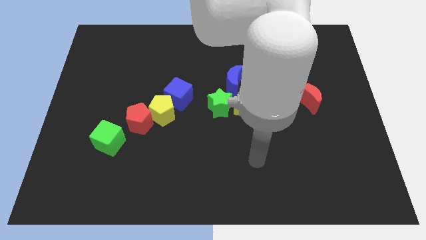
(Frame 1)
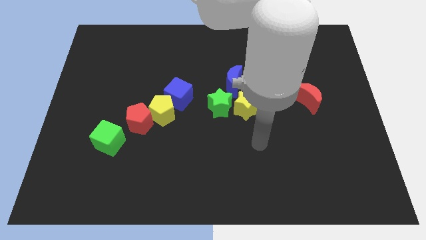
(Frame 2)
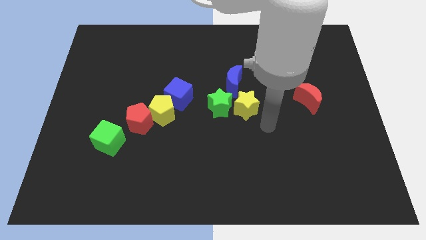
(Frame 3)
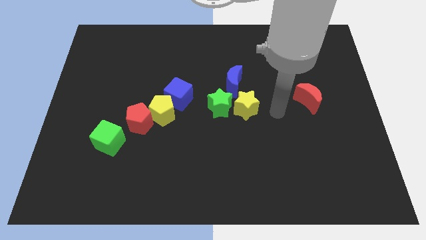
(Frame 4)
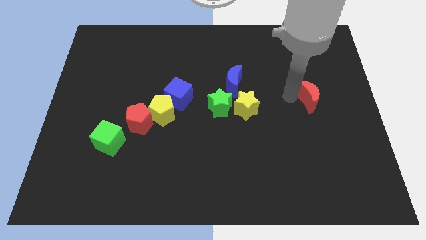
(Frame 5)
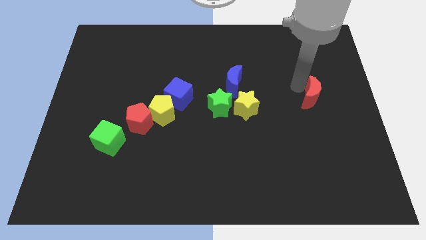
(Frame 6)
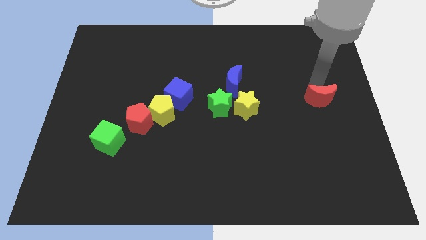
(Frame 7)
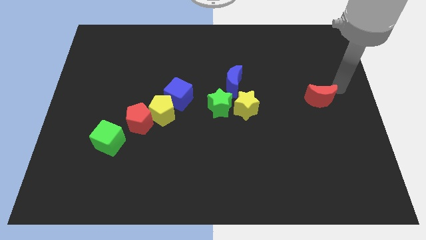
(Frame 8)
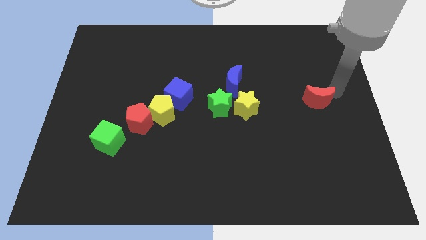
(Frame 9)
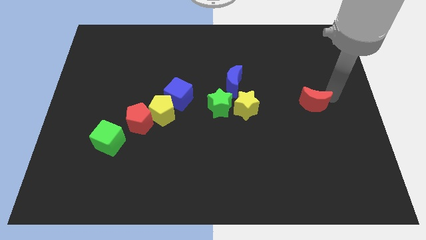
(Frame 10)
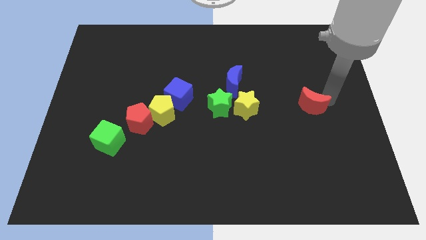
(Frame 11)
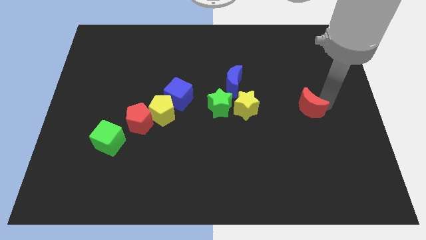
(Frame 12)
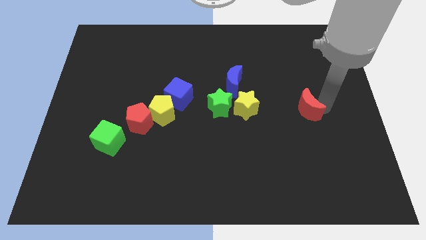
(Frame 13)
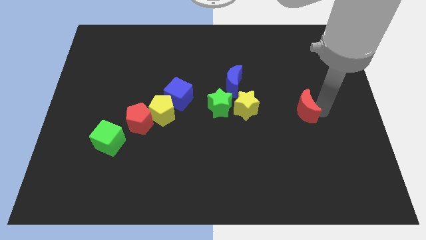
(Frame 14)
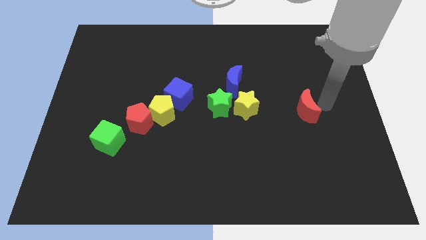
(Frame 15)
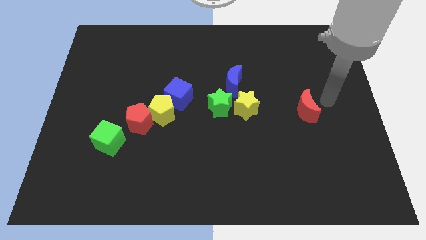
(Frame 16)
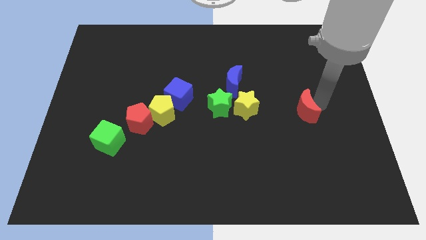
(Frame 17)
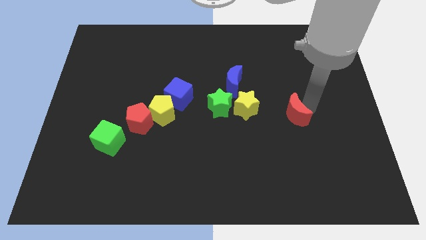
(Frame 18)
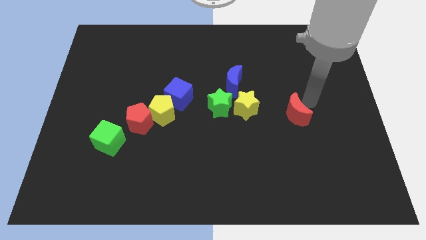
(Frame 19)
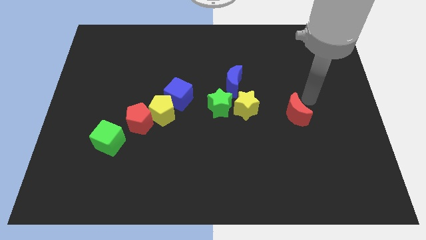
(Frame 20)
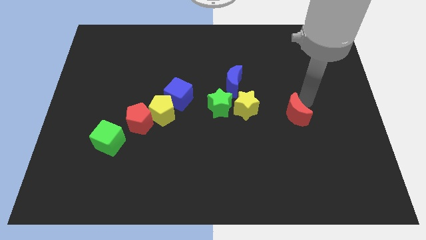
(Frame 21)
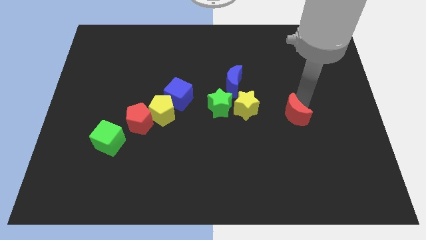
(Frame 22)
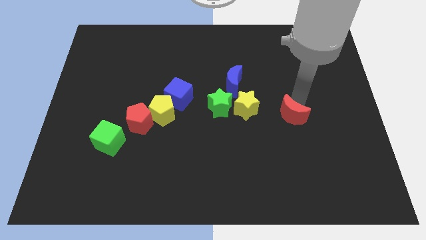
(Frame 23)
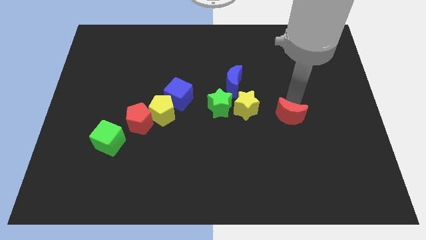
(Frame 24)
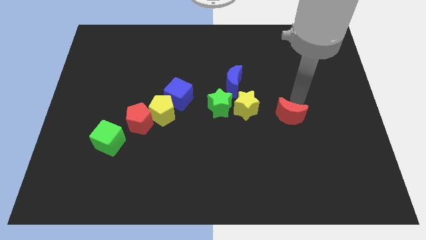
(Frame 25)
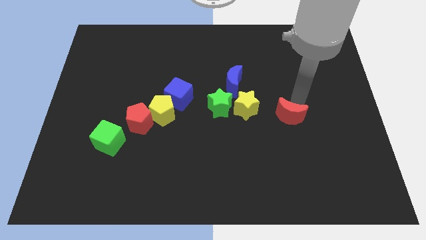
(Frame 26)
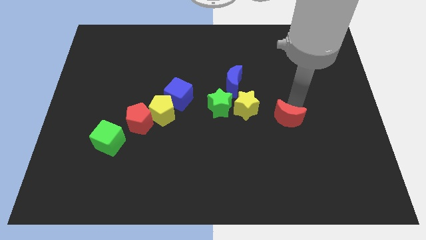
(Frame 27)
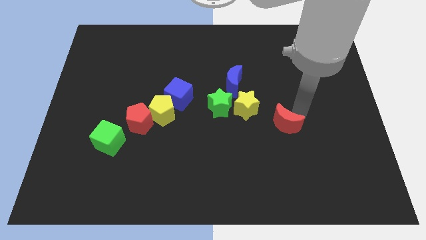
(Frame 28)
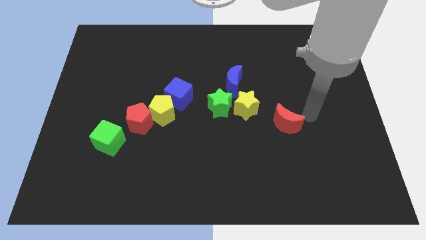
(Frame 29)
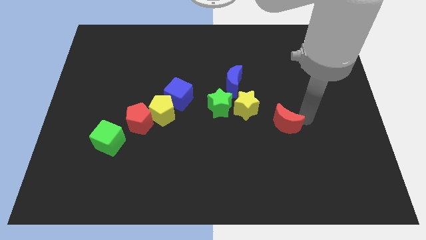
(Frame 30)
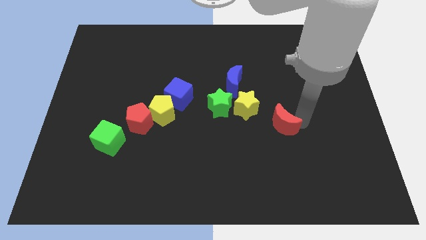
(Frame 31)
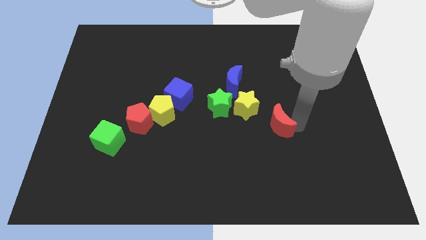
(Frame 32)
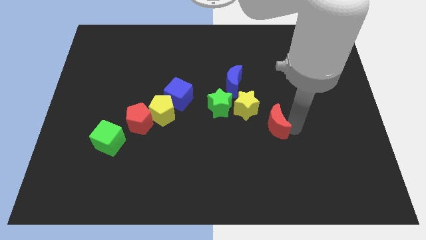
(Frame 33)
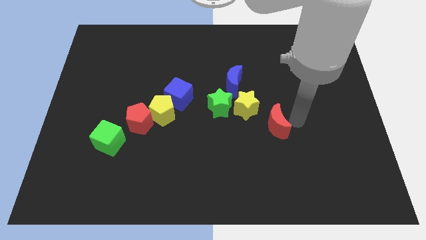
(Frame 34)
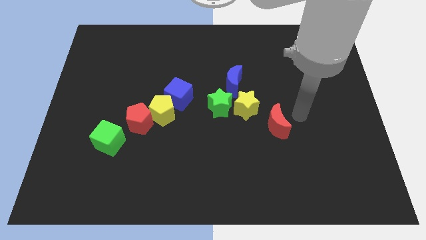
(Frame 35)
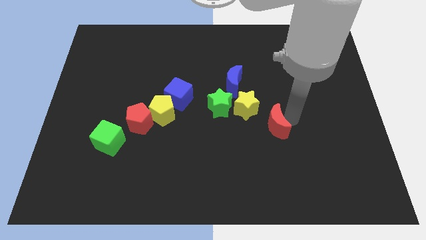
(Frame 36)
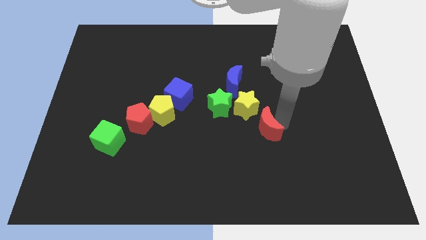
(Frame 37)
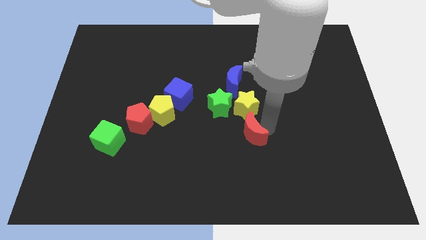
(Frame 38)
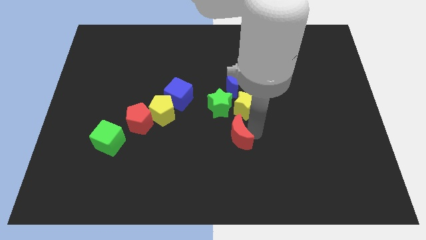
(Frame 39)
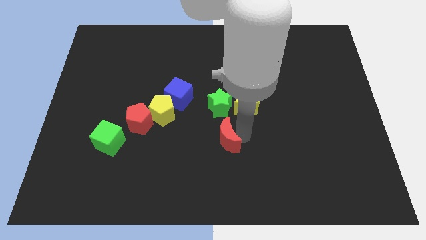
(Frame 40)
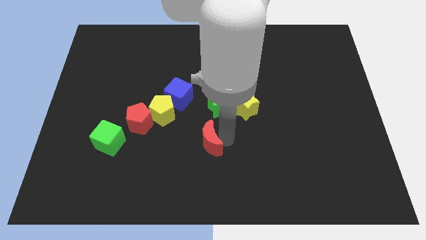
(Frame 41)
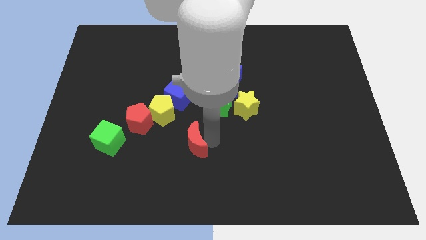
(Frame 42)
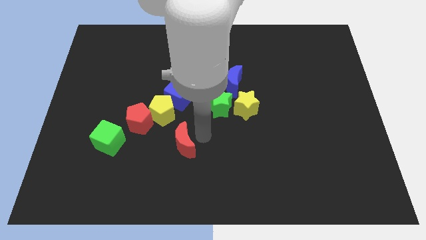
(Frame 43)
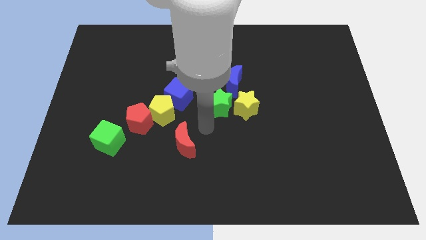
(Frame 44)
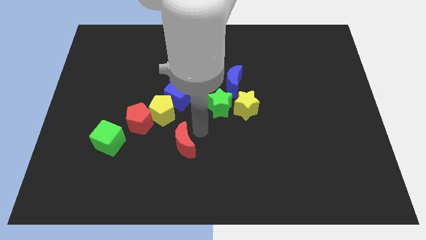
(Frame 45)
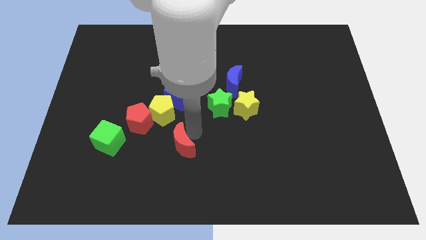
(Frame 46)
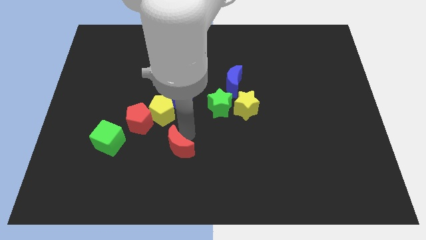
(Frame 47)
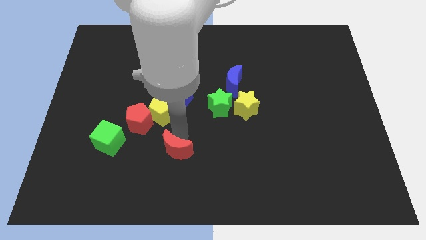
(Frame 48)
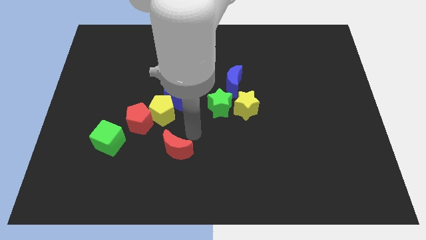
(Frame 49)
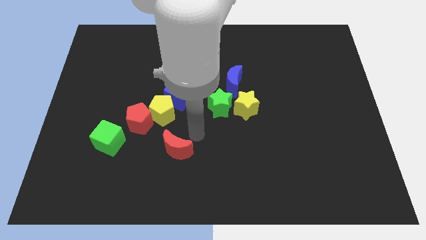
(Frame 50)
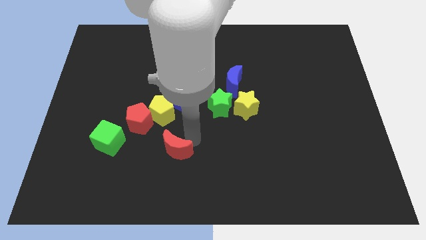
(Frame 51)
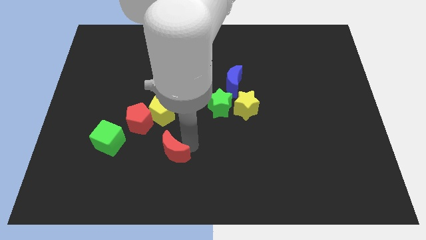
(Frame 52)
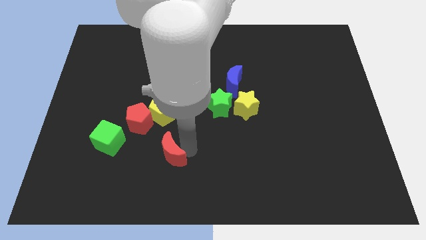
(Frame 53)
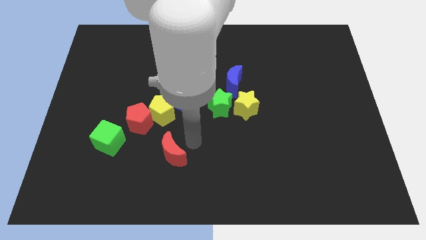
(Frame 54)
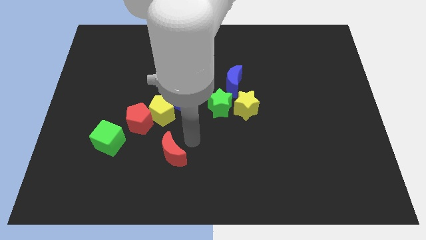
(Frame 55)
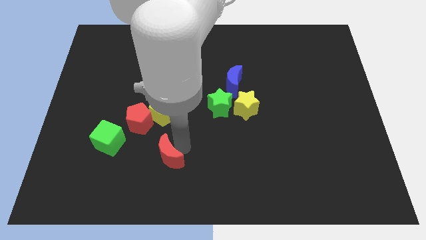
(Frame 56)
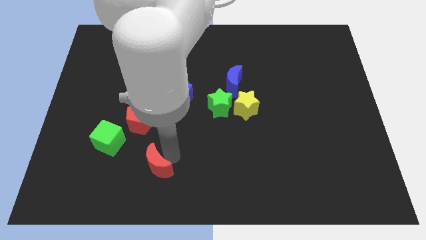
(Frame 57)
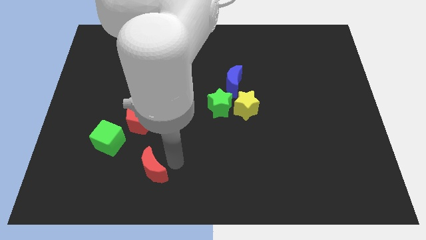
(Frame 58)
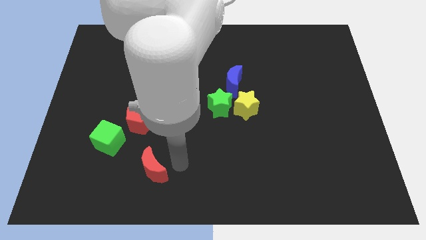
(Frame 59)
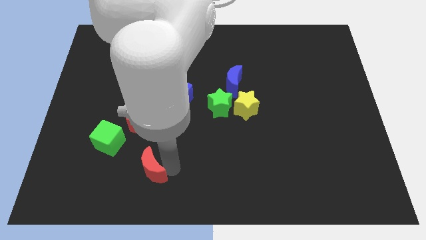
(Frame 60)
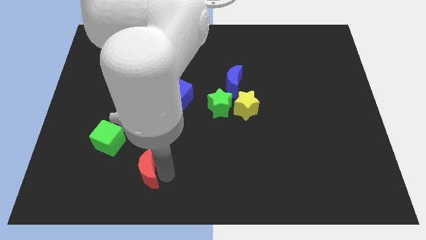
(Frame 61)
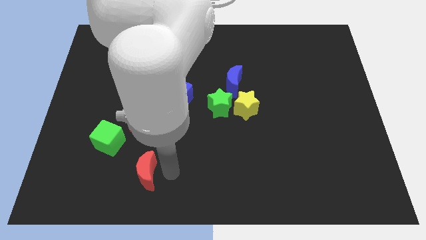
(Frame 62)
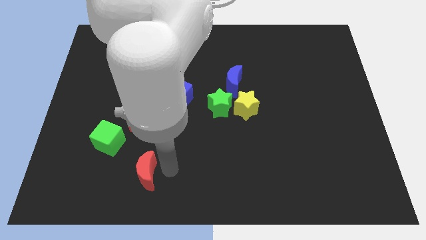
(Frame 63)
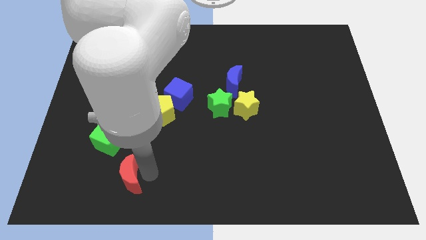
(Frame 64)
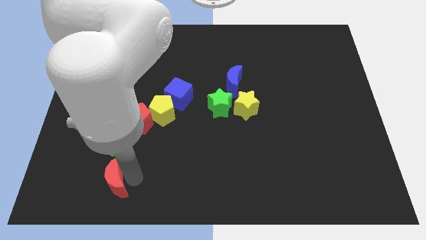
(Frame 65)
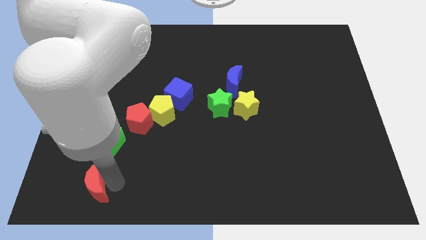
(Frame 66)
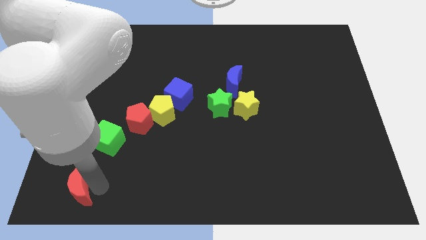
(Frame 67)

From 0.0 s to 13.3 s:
push the red moon to the bottom left corner

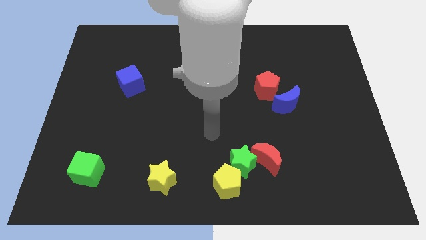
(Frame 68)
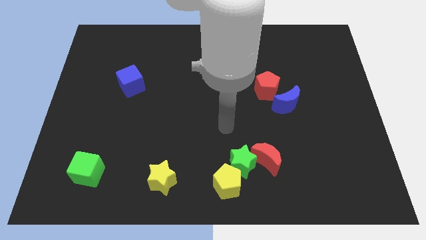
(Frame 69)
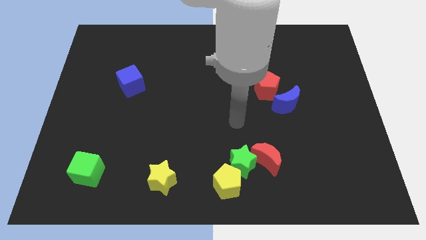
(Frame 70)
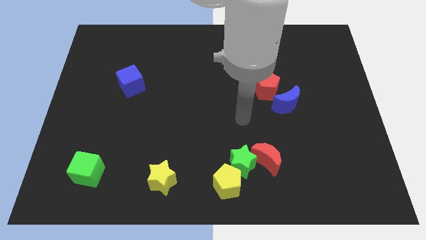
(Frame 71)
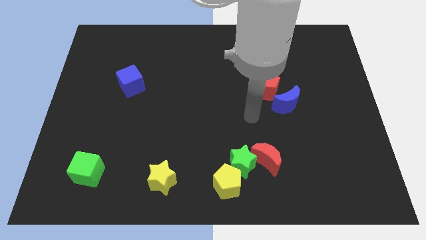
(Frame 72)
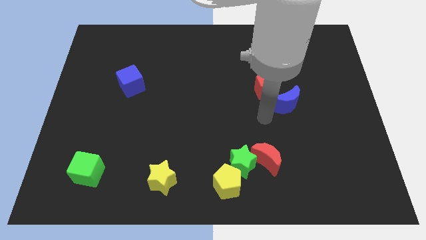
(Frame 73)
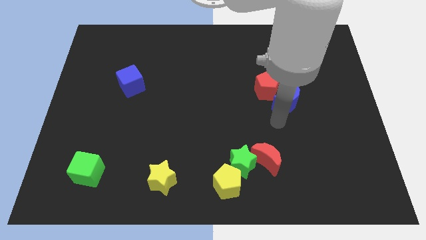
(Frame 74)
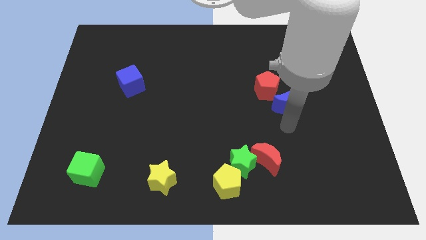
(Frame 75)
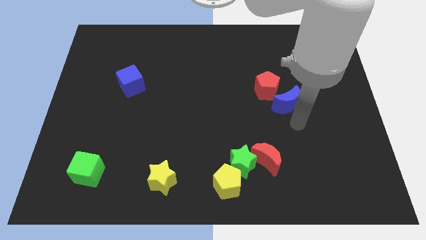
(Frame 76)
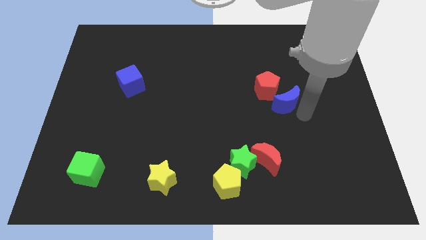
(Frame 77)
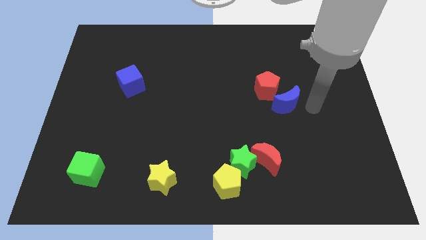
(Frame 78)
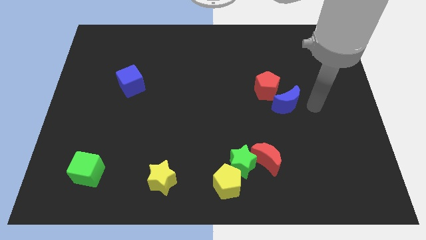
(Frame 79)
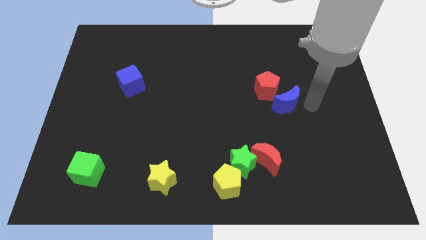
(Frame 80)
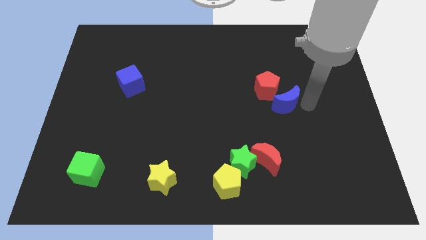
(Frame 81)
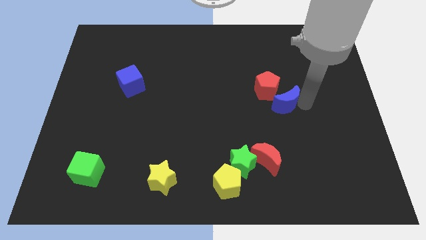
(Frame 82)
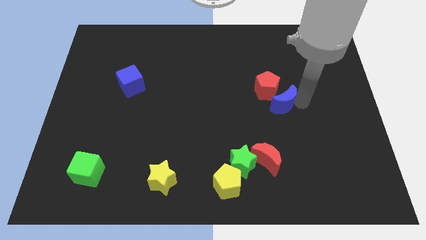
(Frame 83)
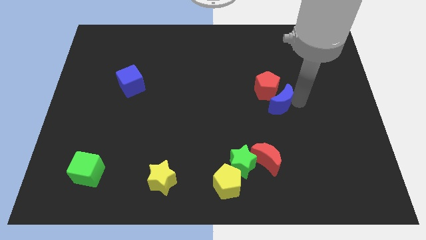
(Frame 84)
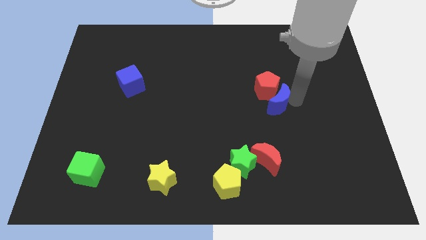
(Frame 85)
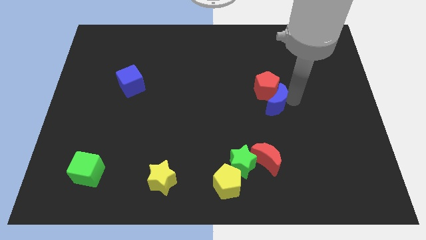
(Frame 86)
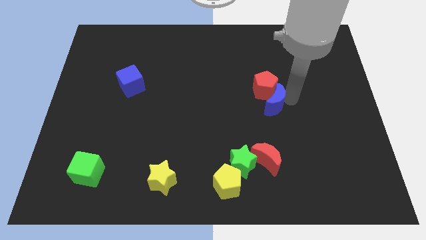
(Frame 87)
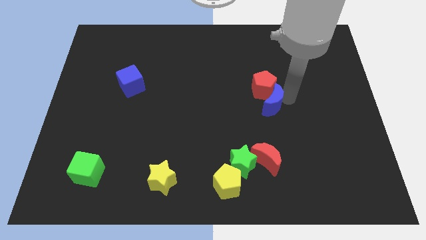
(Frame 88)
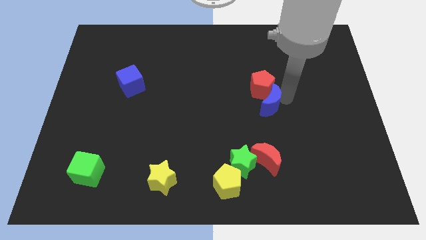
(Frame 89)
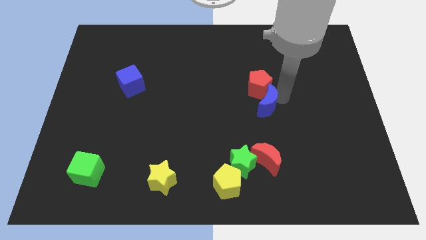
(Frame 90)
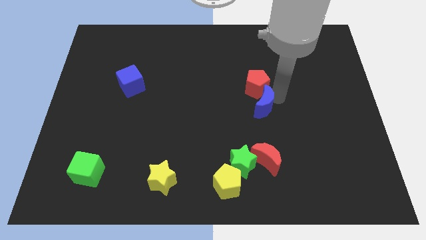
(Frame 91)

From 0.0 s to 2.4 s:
slide the blue moon to the center of the board
